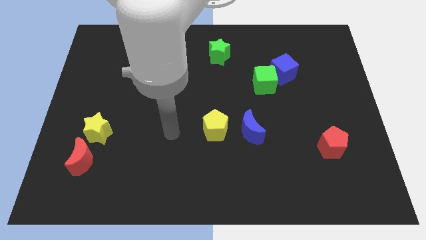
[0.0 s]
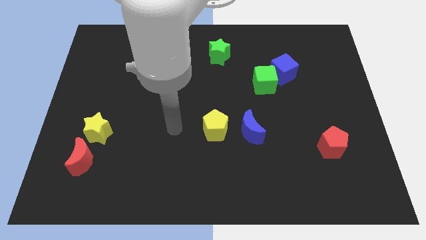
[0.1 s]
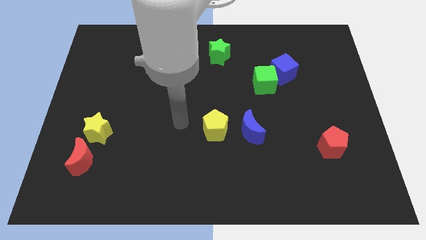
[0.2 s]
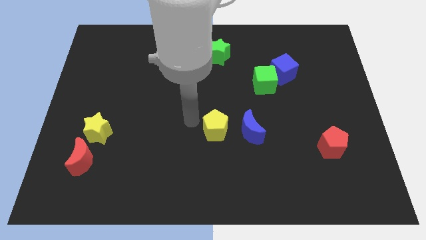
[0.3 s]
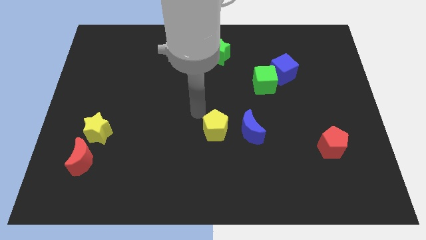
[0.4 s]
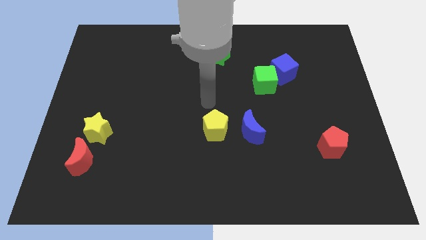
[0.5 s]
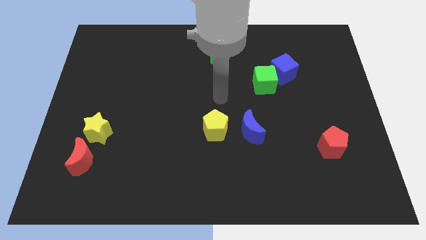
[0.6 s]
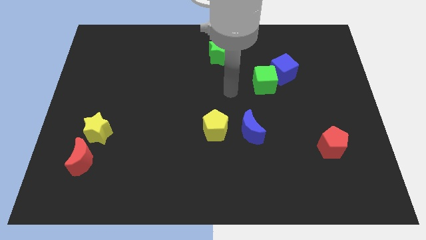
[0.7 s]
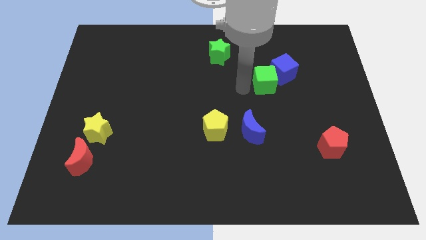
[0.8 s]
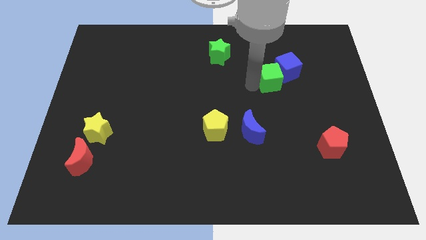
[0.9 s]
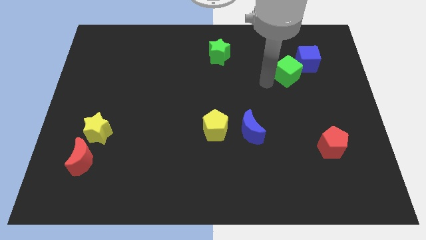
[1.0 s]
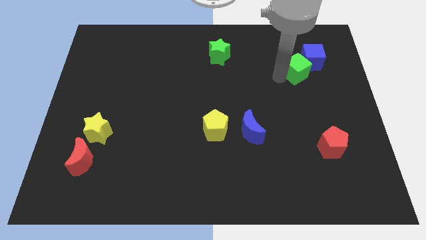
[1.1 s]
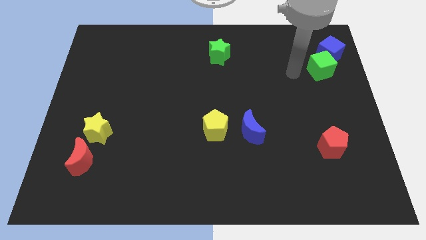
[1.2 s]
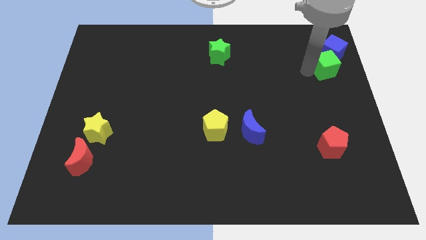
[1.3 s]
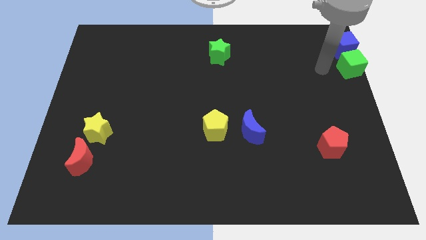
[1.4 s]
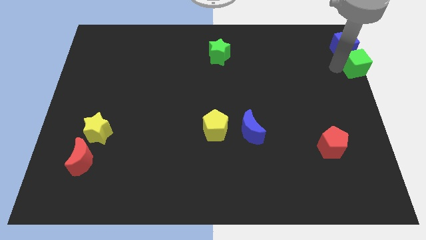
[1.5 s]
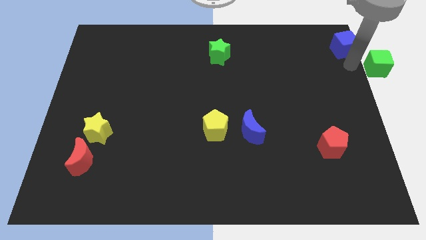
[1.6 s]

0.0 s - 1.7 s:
separate the blue cube from the green cube

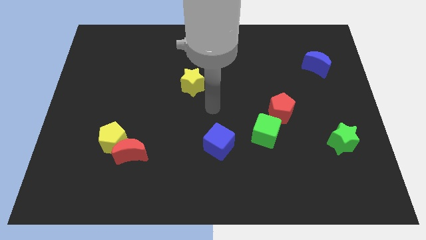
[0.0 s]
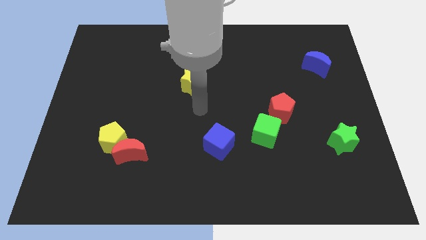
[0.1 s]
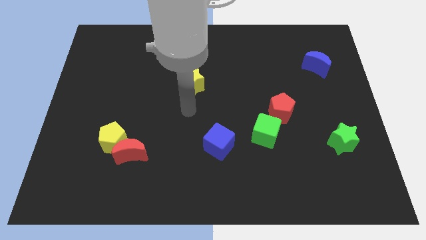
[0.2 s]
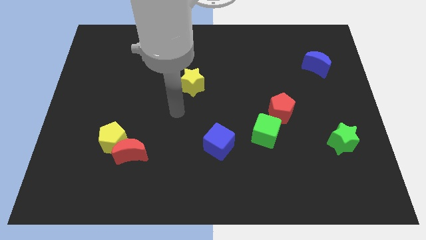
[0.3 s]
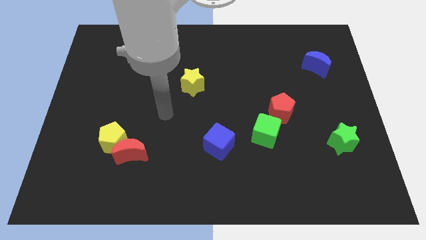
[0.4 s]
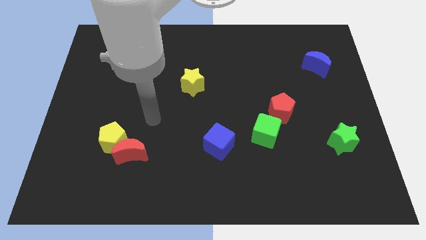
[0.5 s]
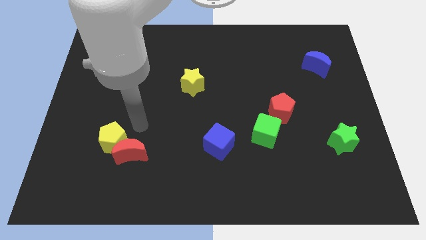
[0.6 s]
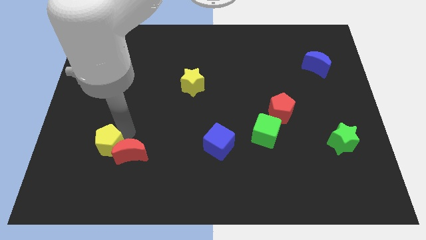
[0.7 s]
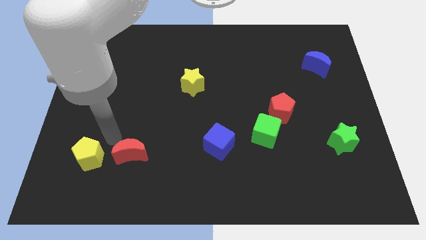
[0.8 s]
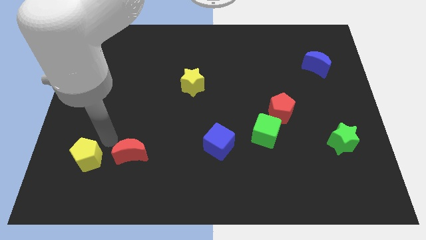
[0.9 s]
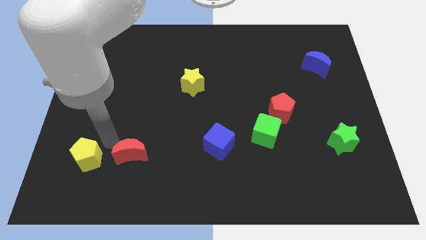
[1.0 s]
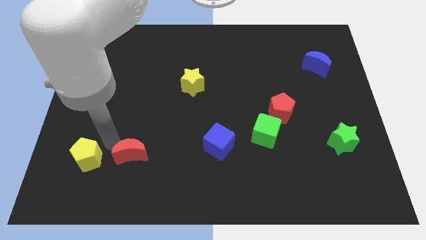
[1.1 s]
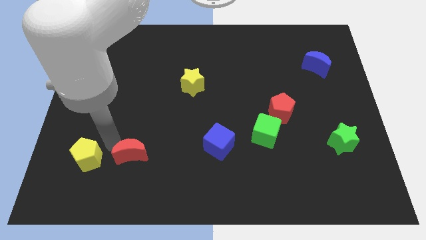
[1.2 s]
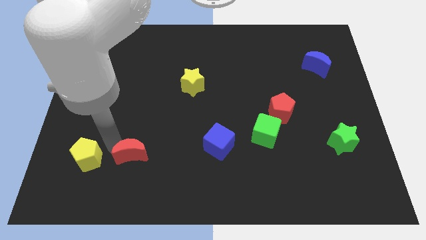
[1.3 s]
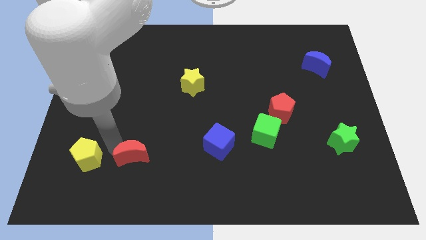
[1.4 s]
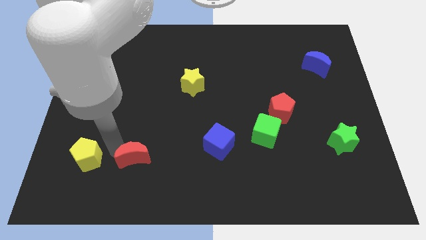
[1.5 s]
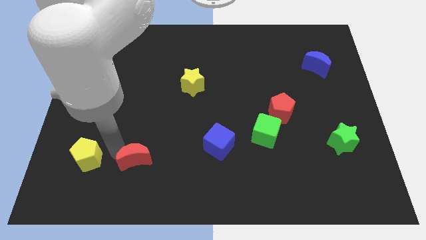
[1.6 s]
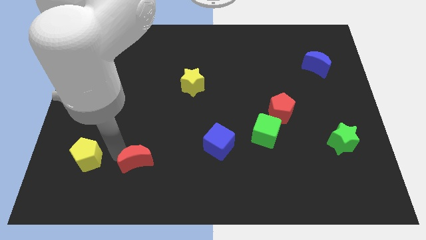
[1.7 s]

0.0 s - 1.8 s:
separate the red moon from the yellow pentagon

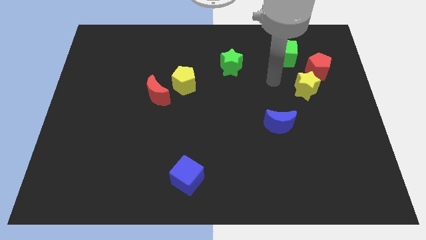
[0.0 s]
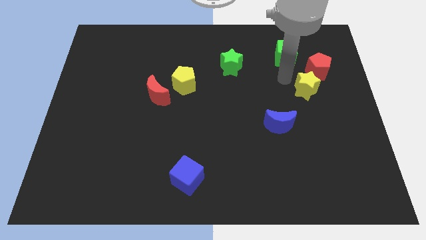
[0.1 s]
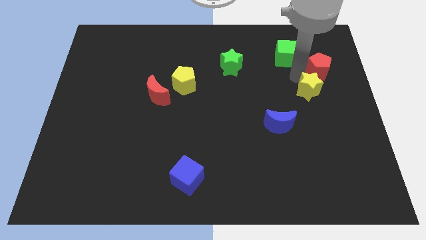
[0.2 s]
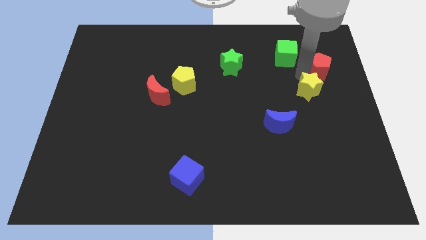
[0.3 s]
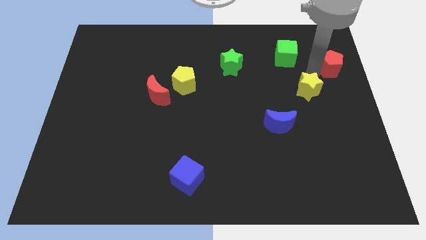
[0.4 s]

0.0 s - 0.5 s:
pull the yellow star apart from the red pentagon

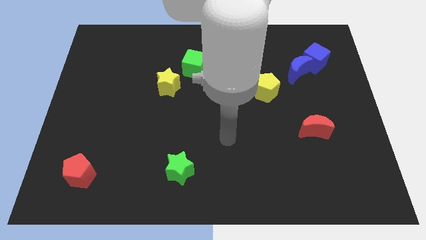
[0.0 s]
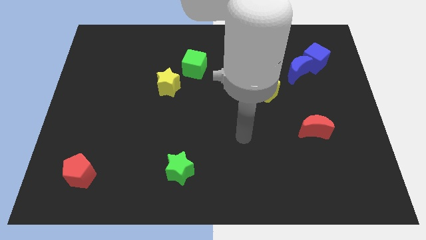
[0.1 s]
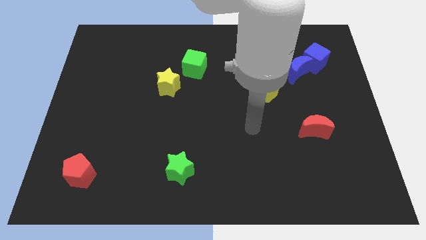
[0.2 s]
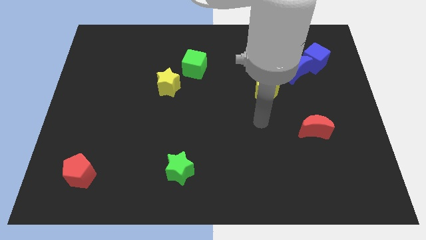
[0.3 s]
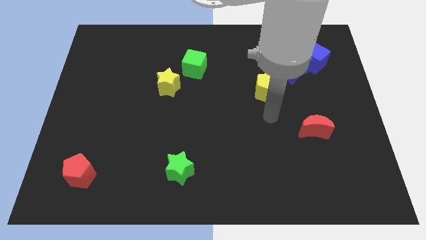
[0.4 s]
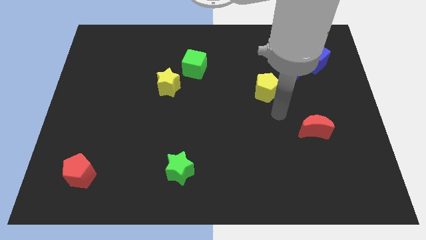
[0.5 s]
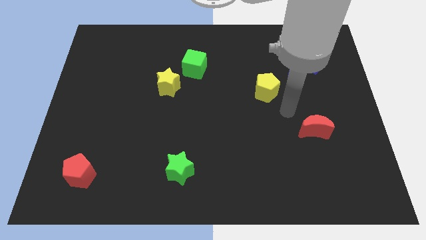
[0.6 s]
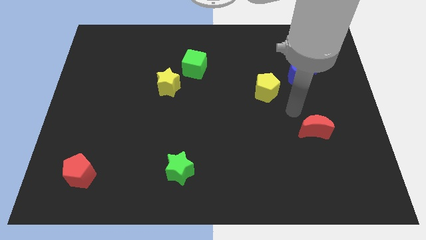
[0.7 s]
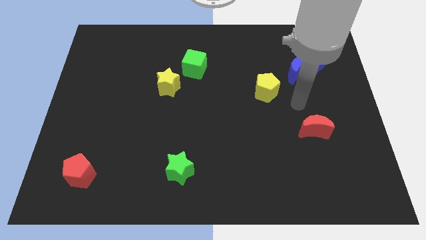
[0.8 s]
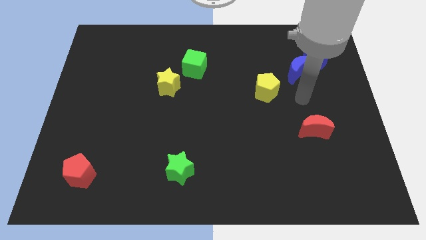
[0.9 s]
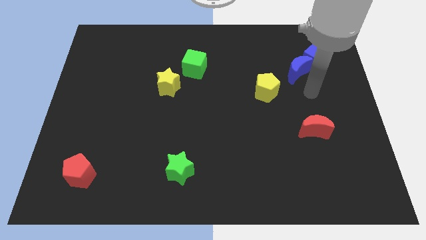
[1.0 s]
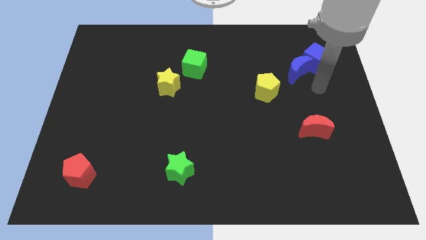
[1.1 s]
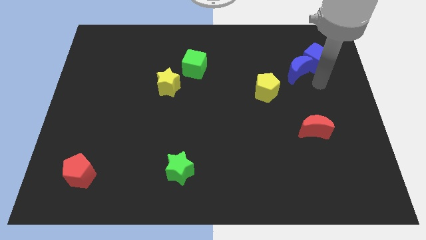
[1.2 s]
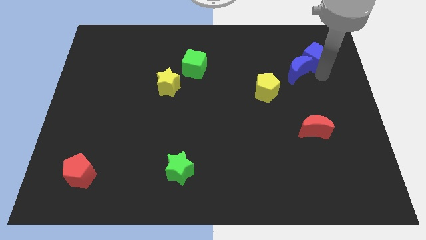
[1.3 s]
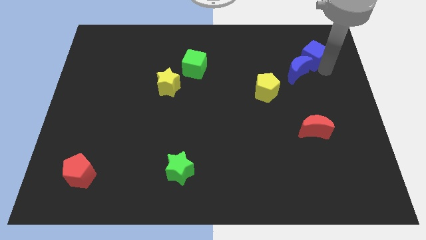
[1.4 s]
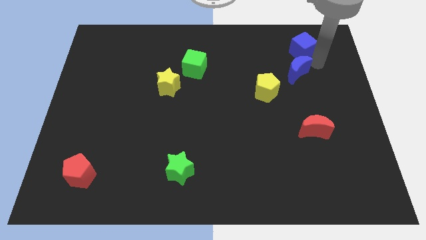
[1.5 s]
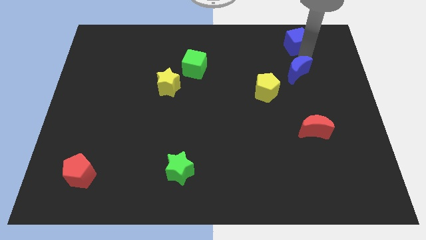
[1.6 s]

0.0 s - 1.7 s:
separate the blue moon from the blue cube

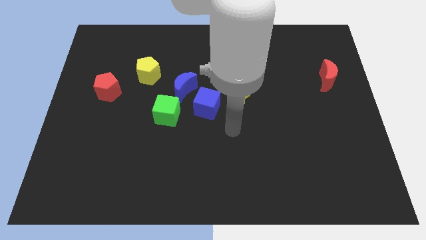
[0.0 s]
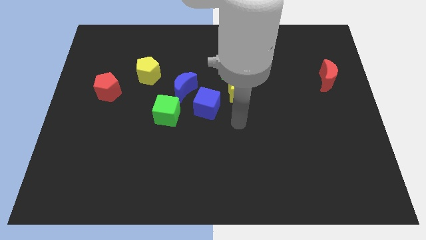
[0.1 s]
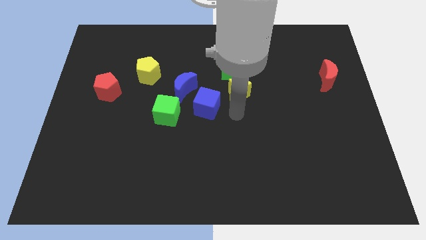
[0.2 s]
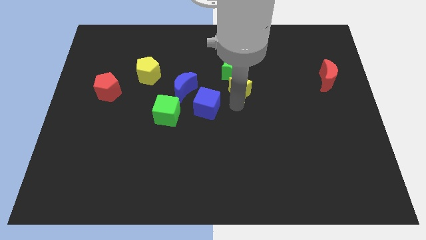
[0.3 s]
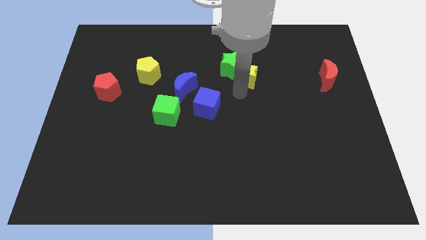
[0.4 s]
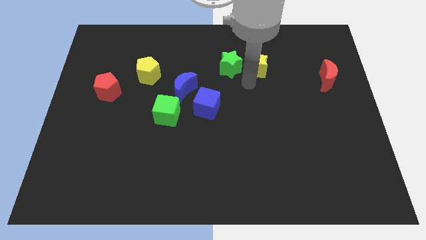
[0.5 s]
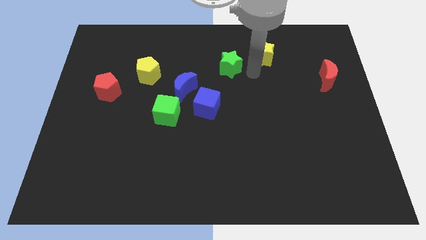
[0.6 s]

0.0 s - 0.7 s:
separate the green star from the yellow star

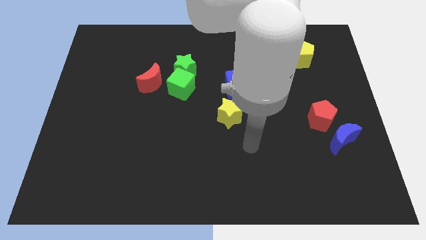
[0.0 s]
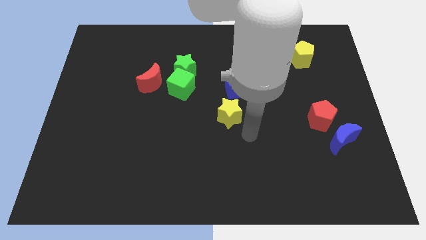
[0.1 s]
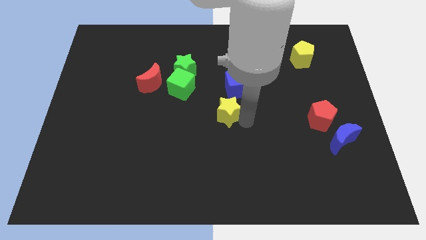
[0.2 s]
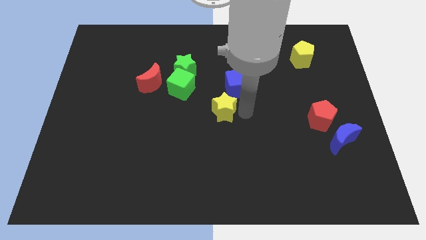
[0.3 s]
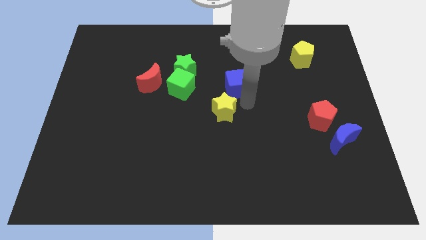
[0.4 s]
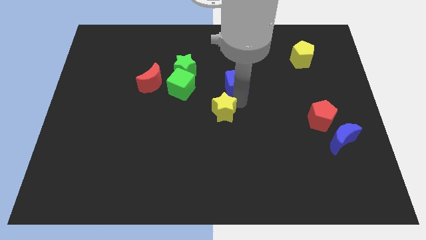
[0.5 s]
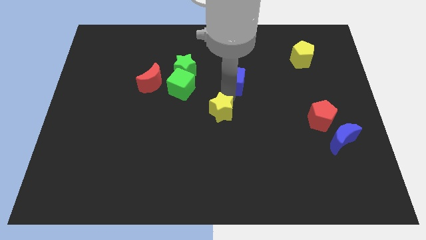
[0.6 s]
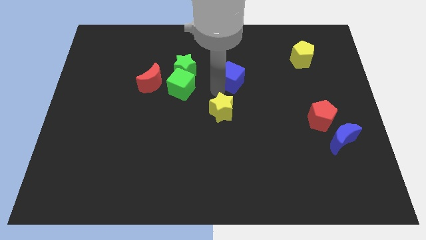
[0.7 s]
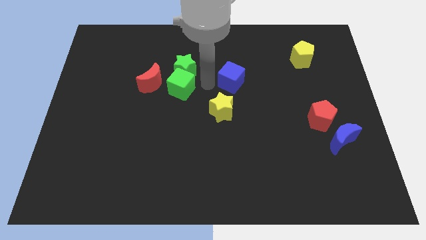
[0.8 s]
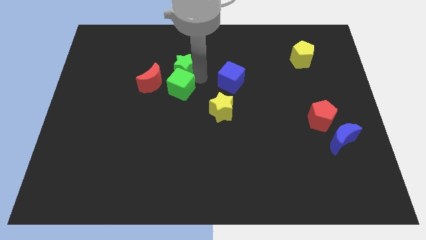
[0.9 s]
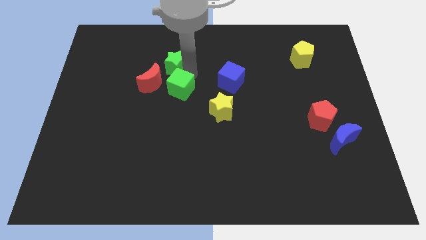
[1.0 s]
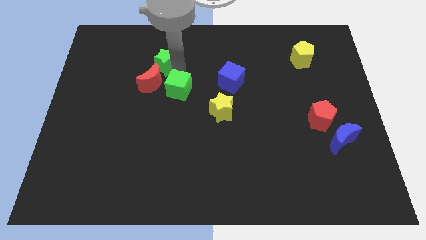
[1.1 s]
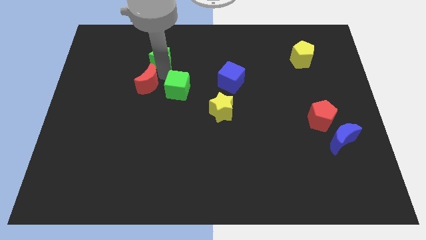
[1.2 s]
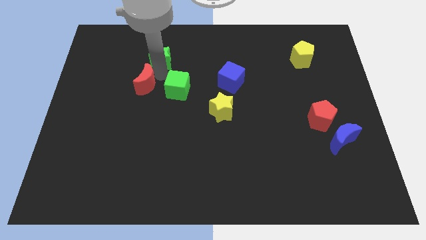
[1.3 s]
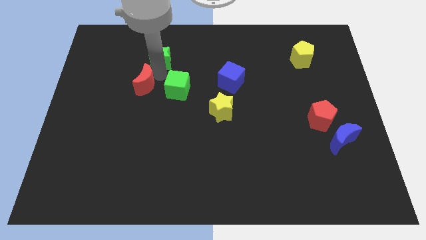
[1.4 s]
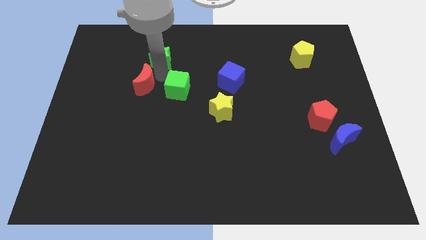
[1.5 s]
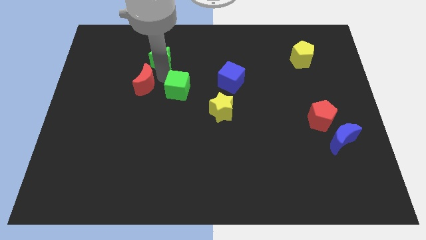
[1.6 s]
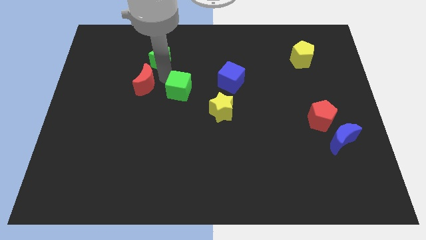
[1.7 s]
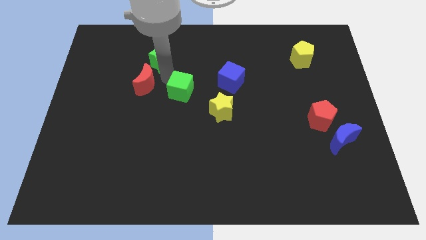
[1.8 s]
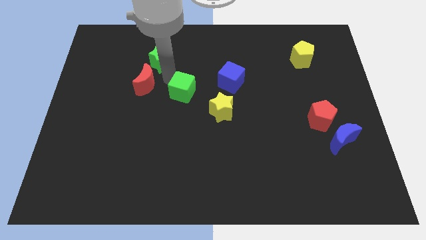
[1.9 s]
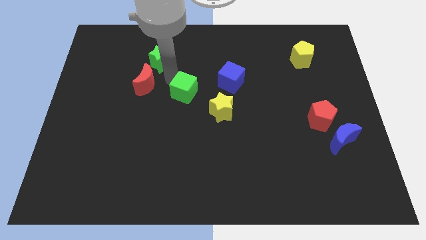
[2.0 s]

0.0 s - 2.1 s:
separate the green cube from the green star and red moon

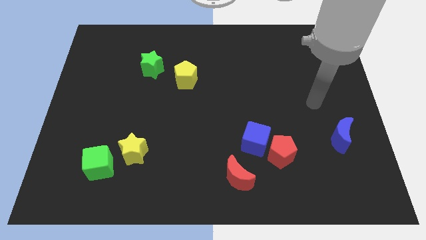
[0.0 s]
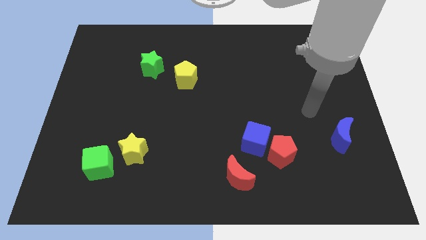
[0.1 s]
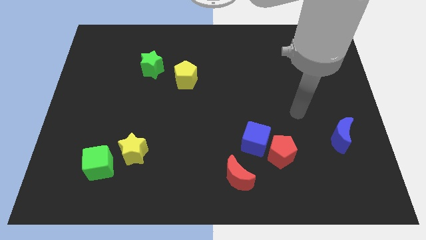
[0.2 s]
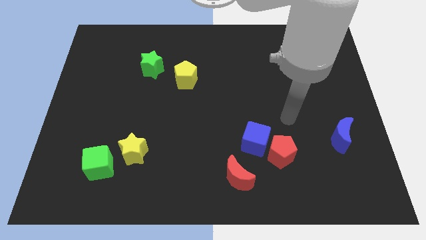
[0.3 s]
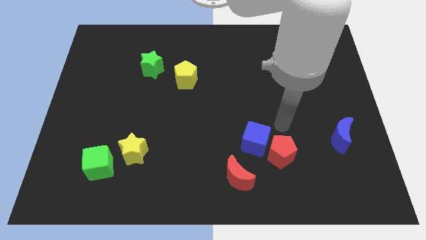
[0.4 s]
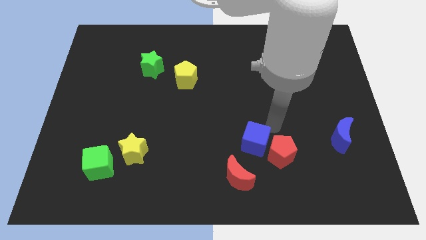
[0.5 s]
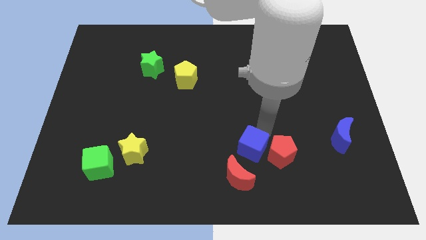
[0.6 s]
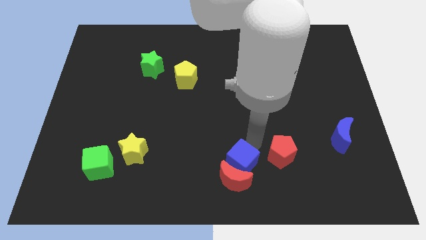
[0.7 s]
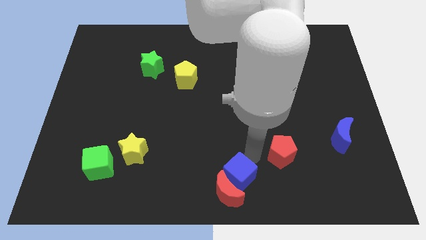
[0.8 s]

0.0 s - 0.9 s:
separate the red pentagon from the blue cube

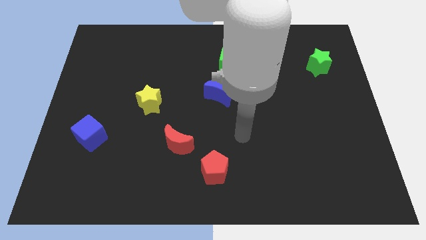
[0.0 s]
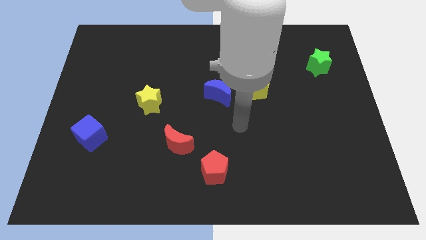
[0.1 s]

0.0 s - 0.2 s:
pull the blue moon apart from the yellow pentagon
